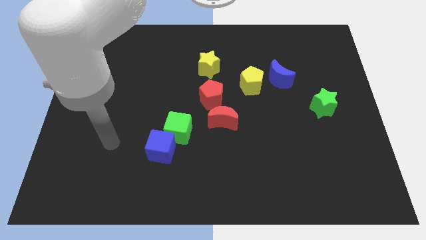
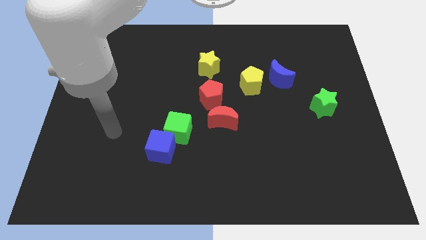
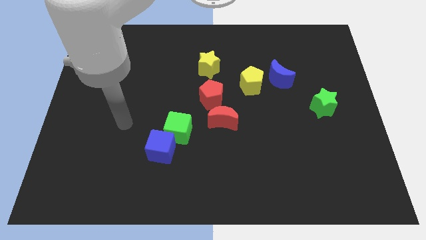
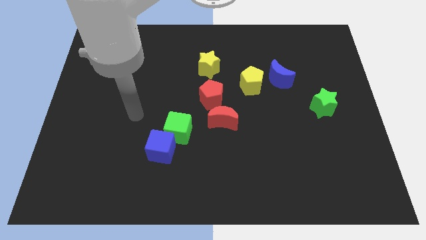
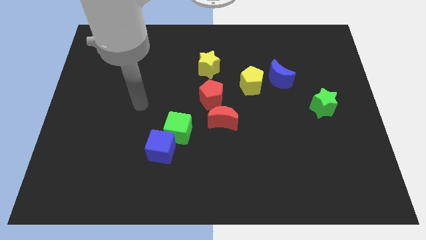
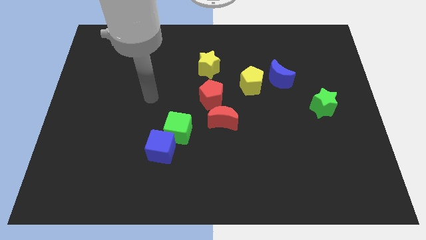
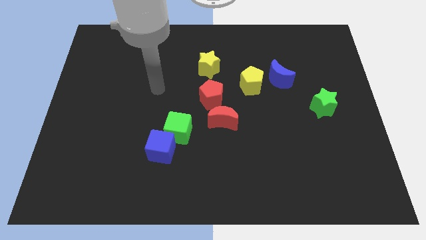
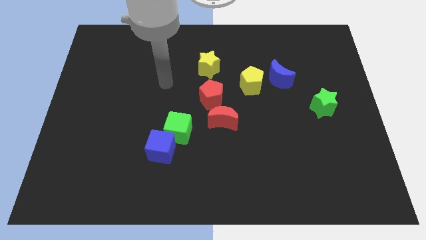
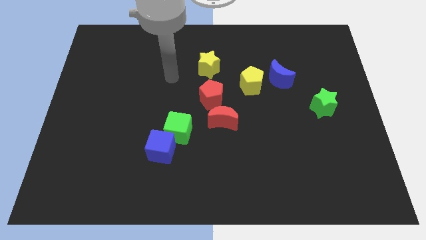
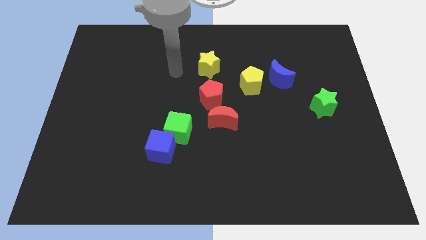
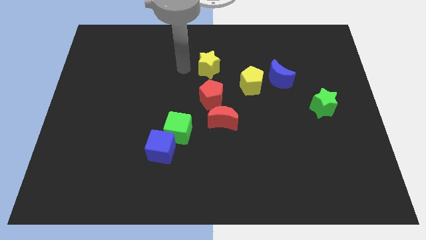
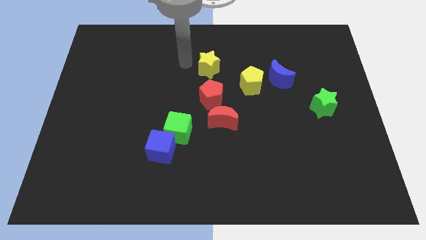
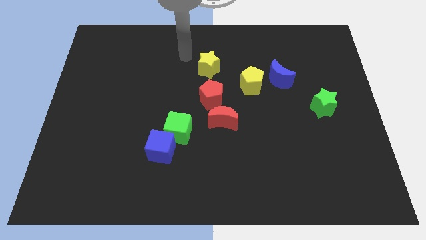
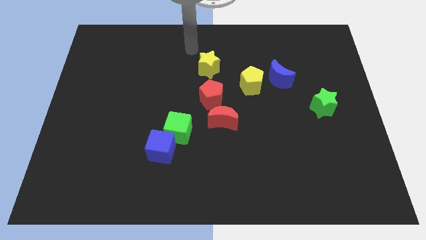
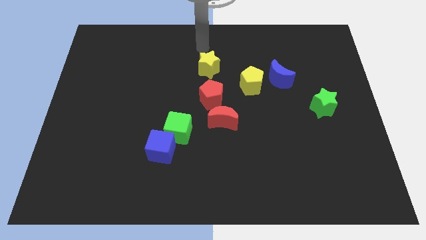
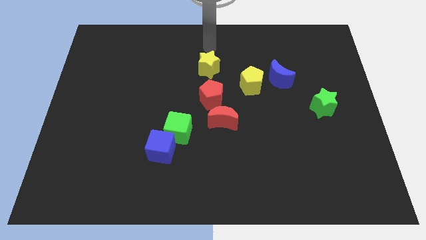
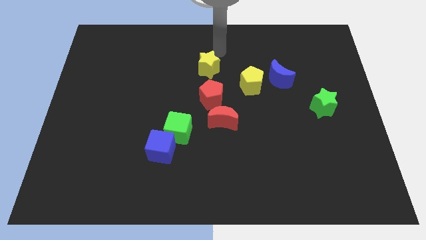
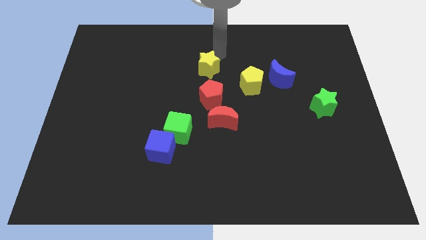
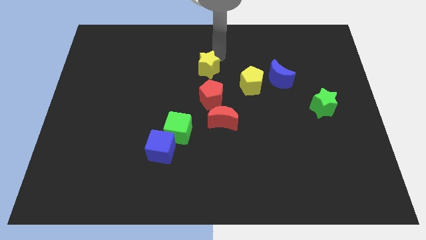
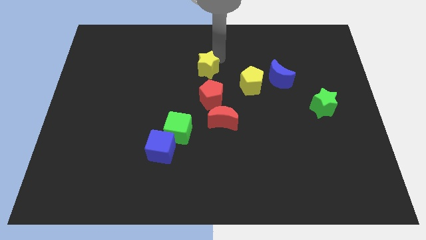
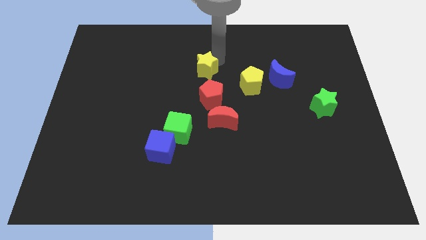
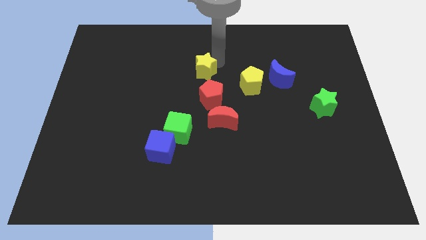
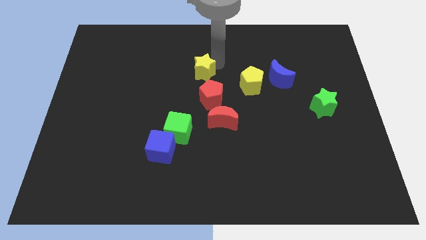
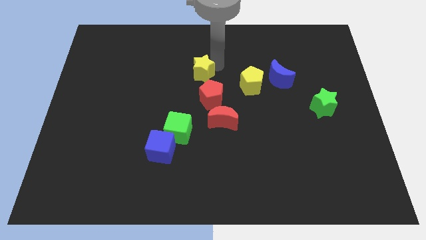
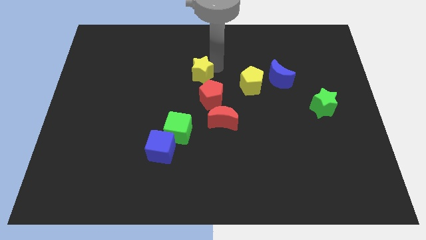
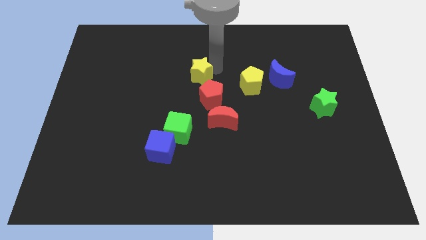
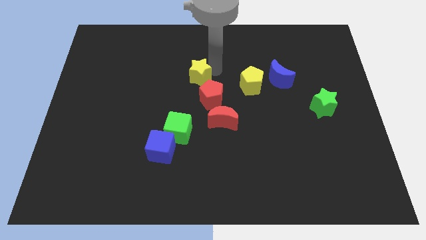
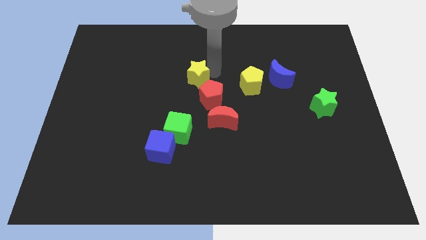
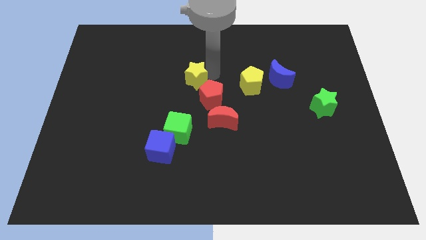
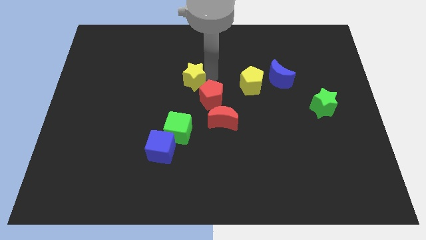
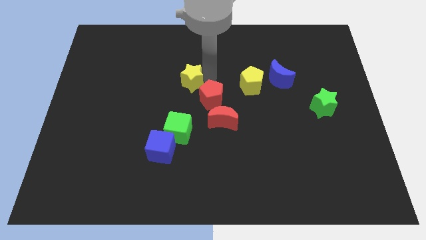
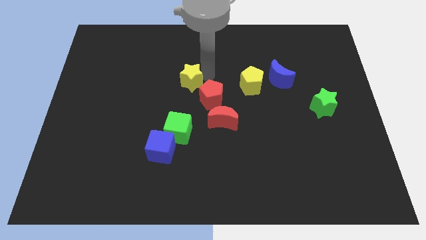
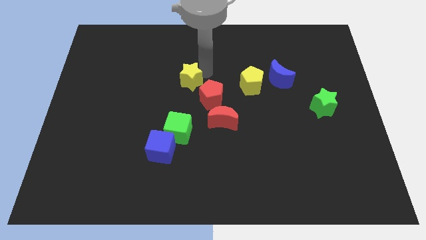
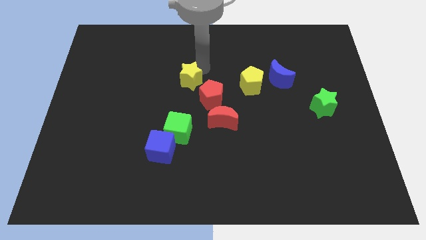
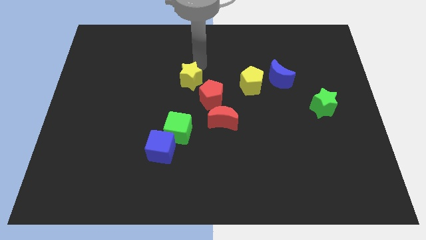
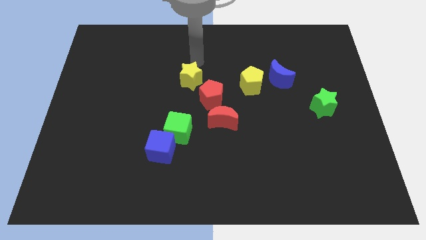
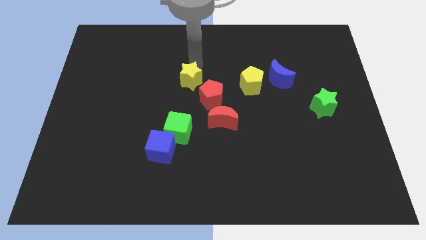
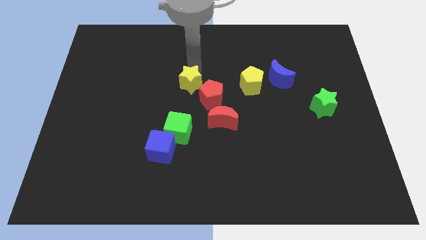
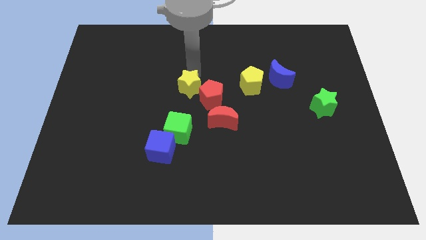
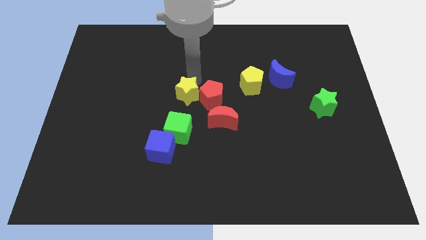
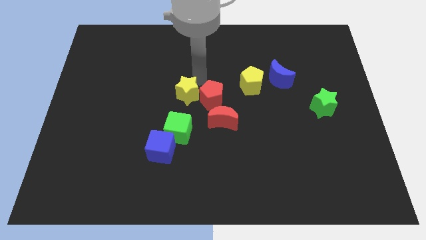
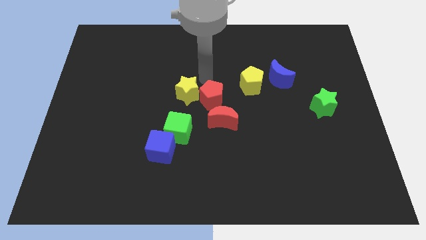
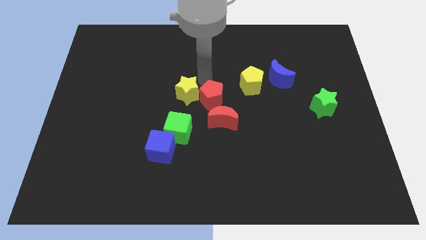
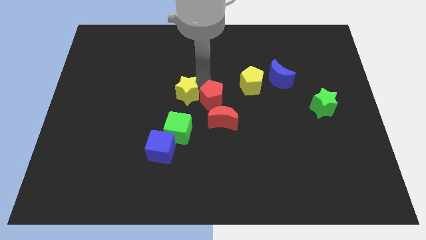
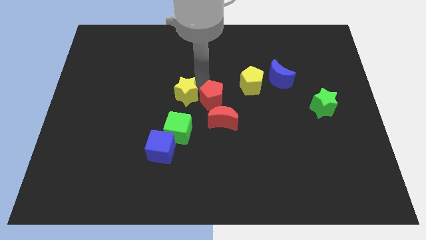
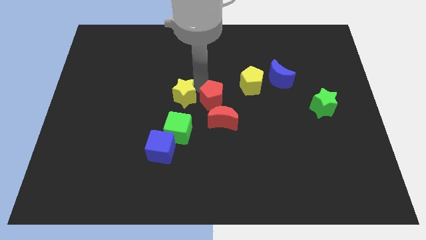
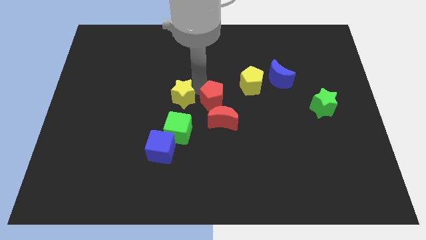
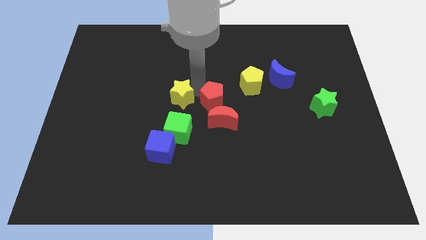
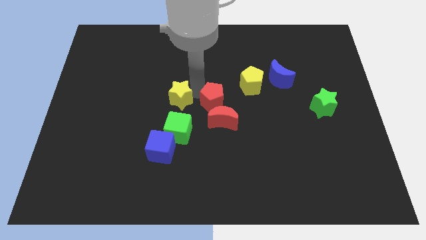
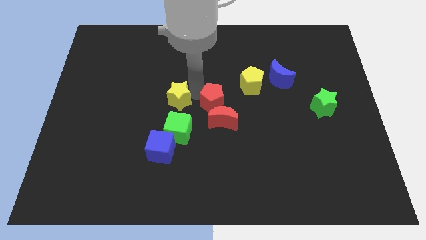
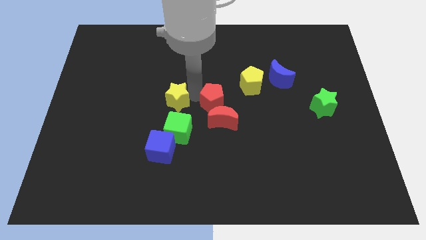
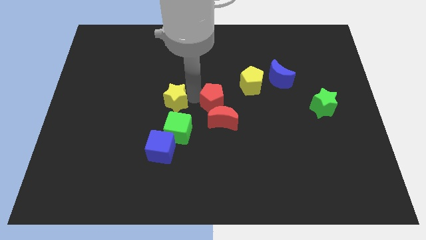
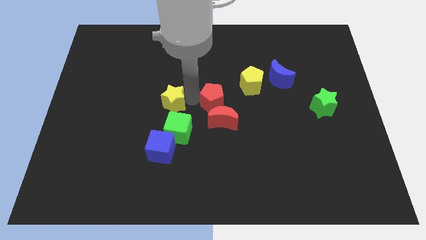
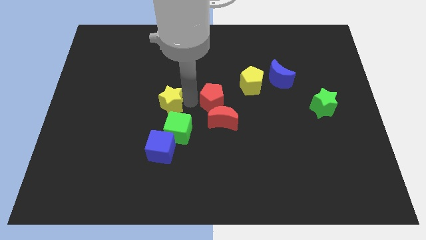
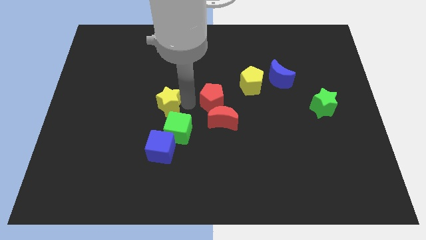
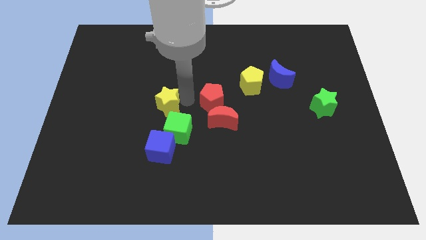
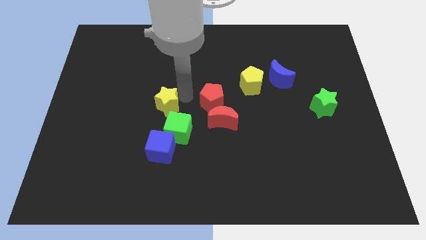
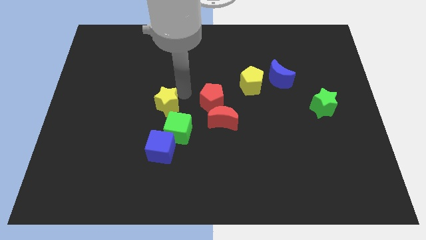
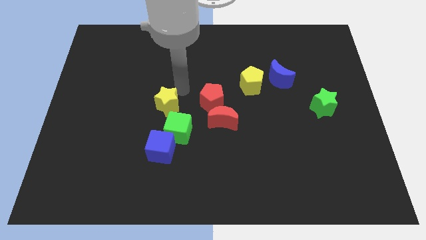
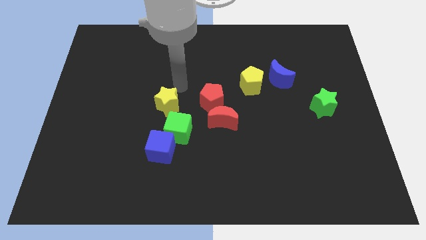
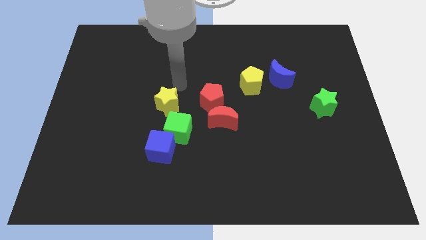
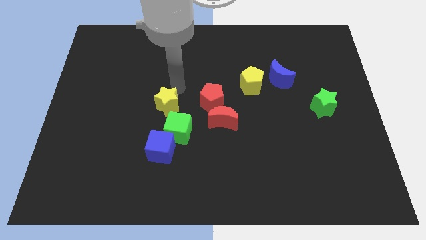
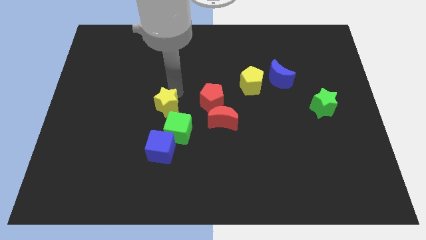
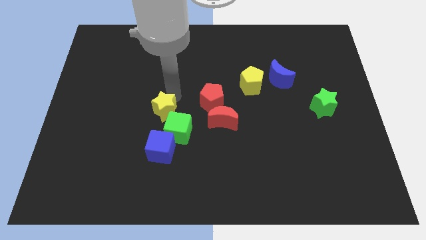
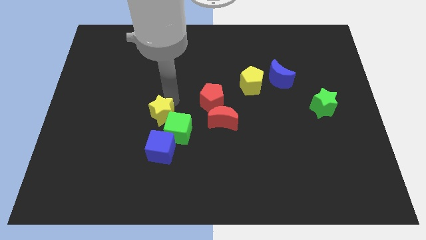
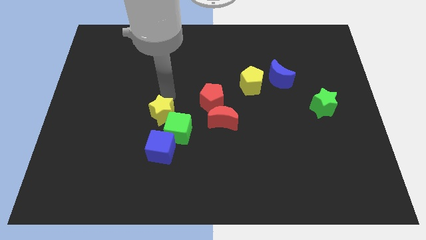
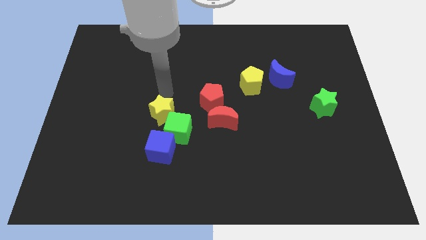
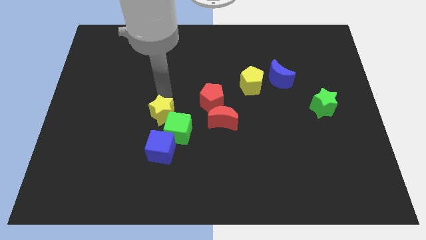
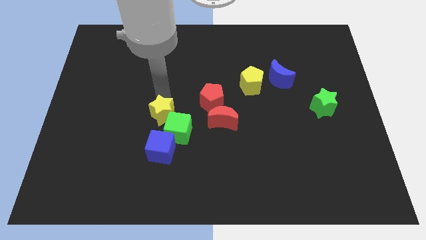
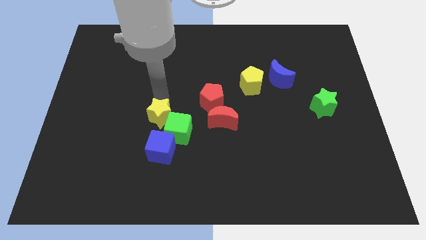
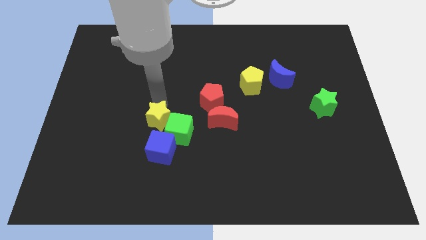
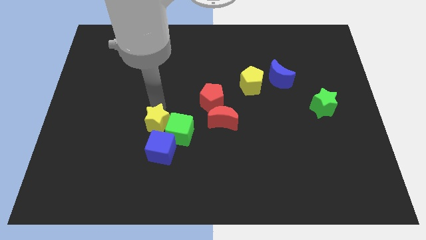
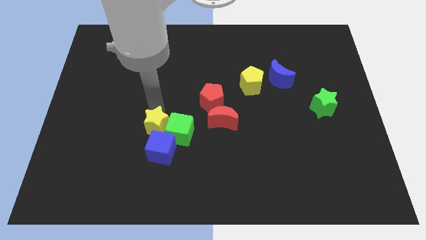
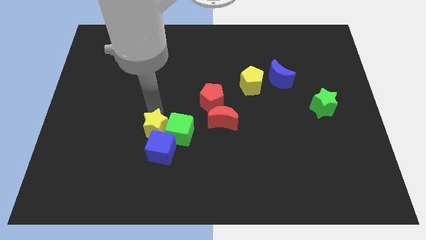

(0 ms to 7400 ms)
slide the yellow star close to the blue cube
